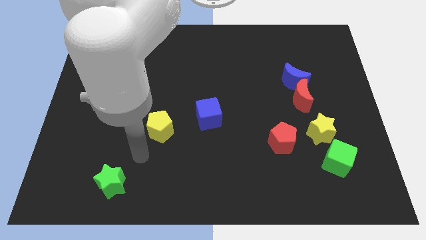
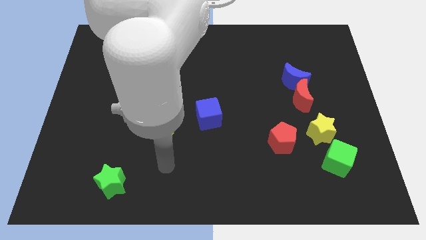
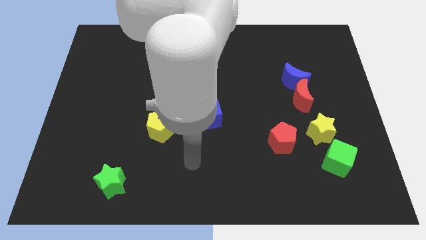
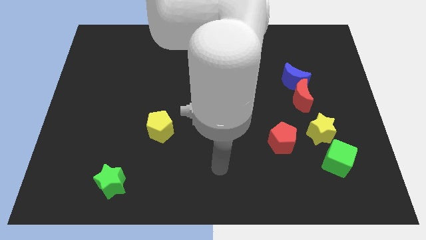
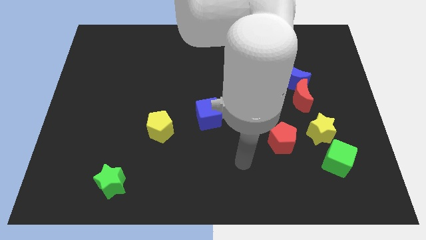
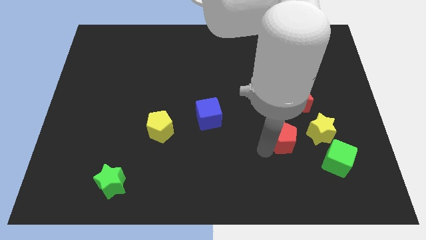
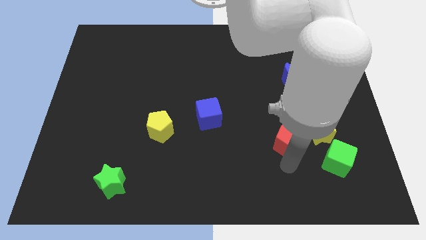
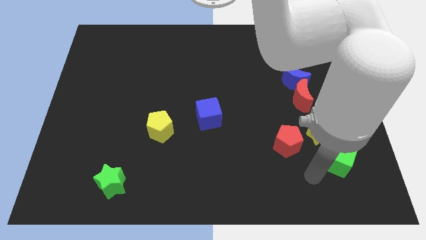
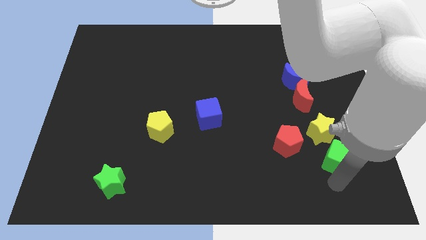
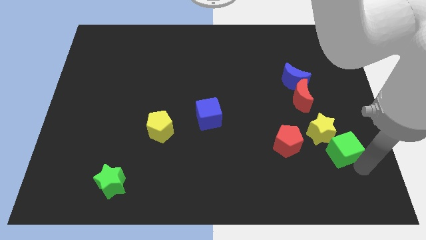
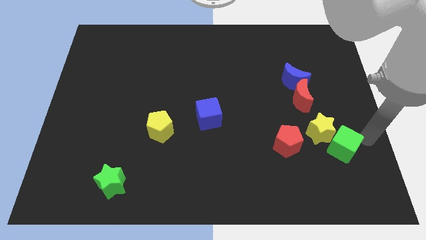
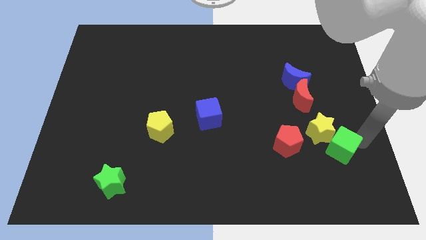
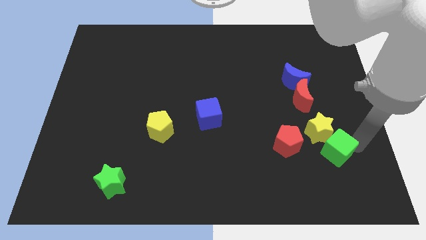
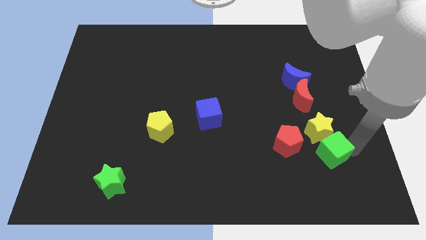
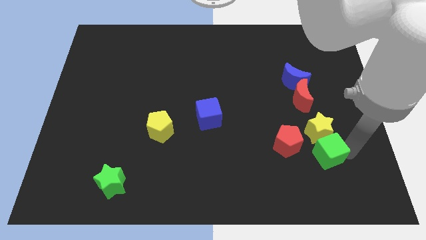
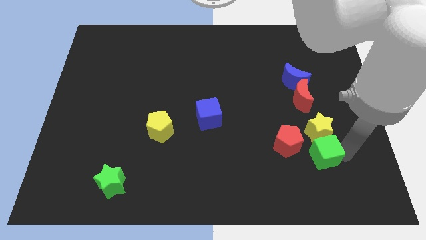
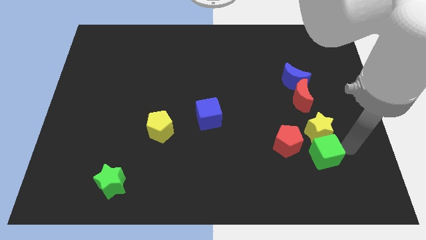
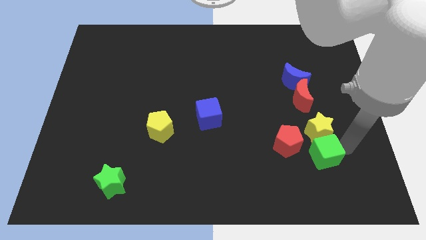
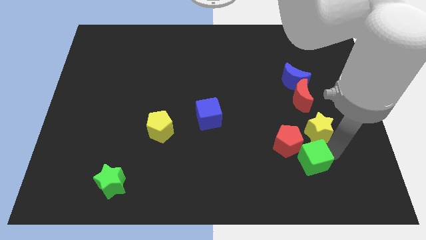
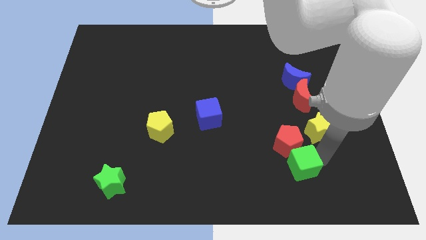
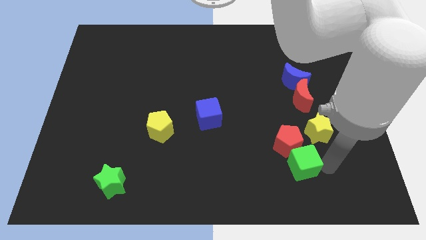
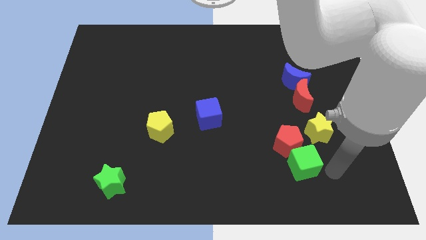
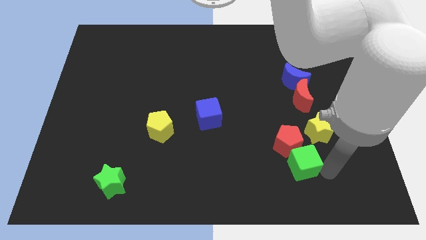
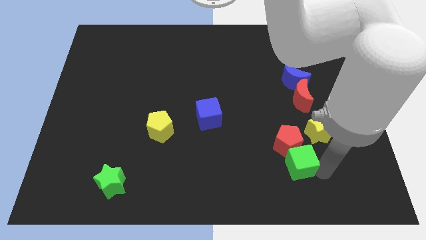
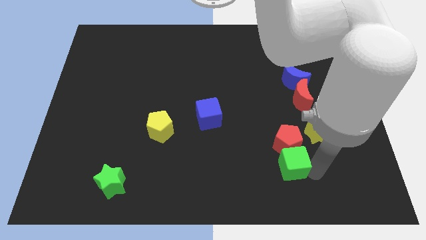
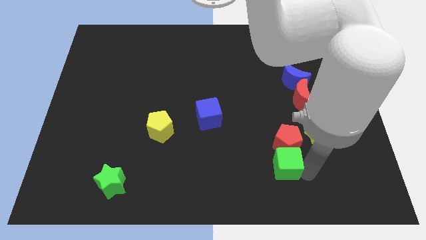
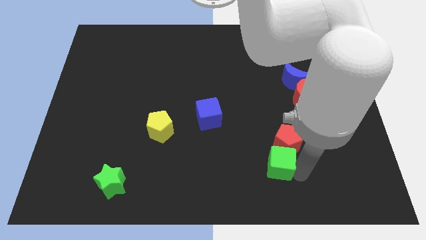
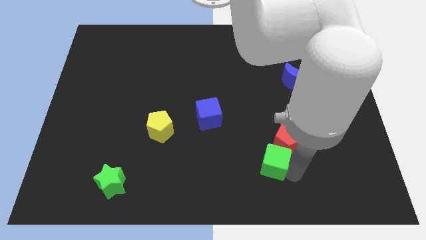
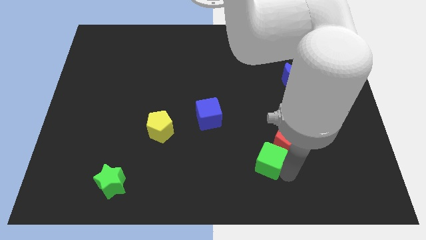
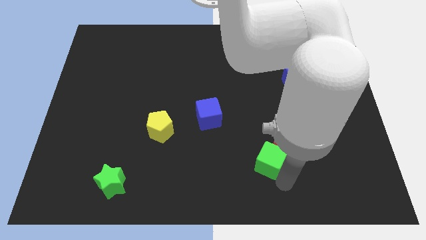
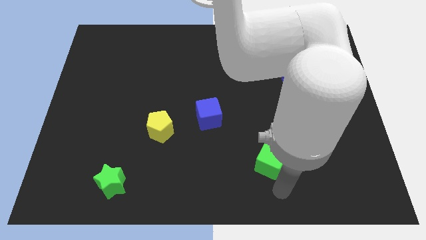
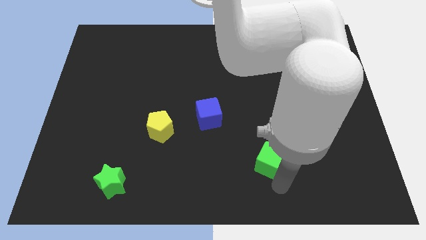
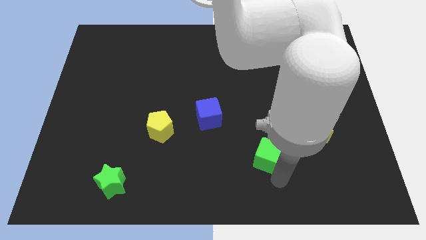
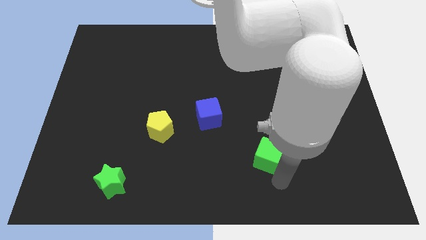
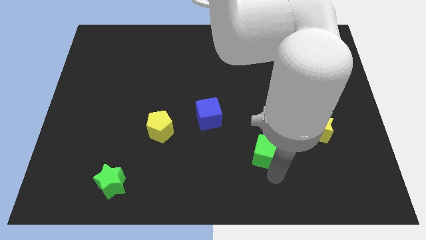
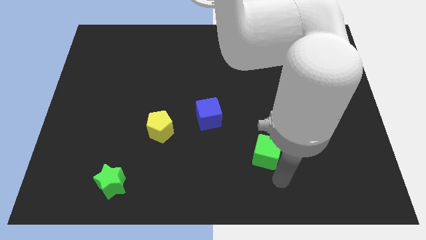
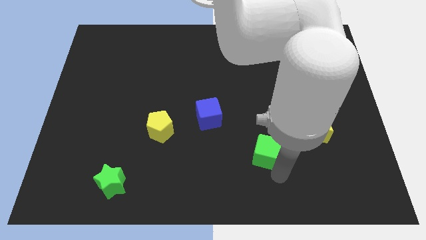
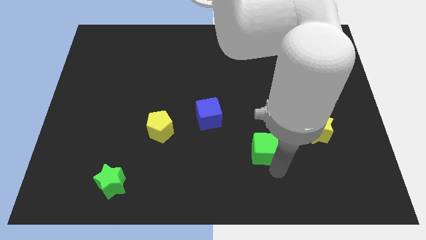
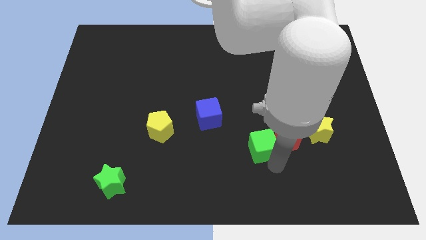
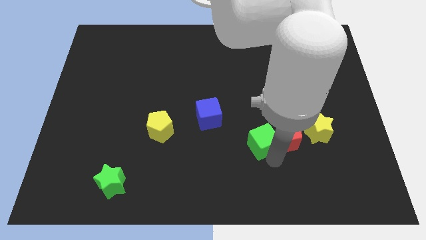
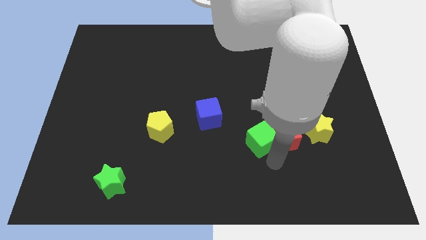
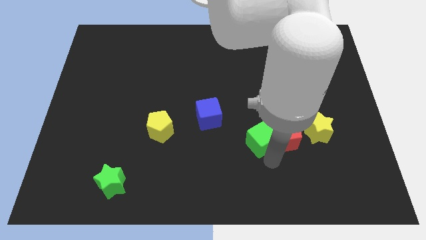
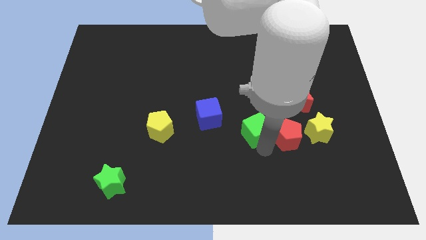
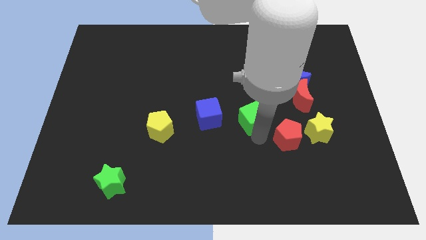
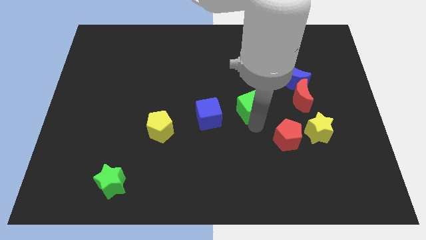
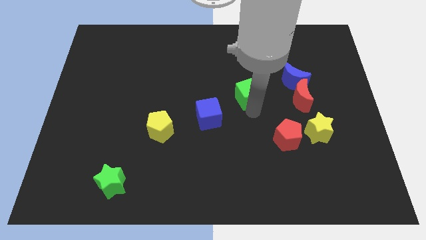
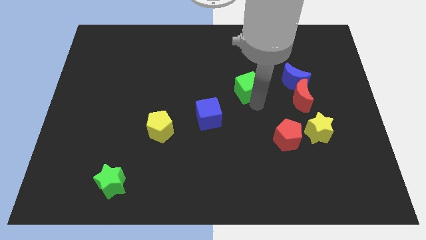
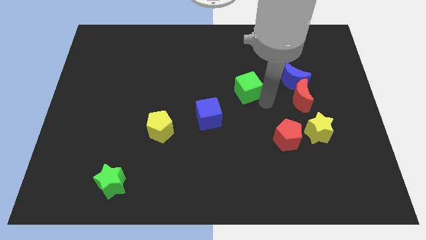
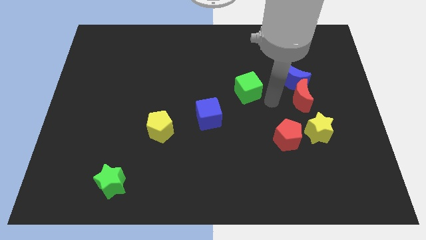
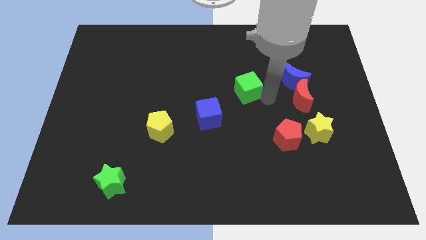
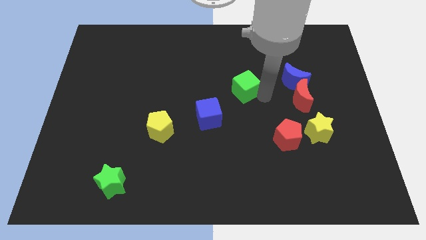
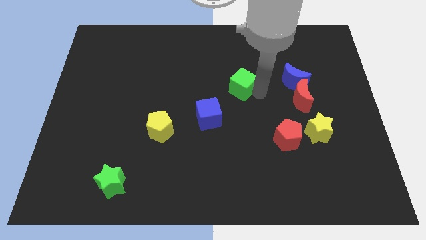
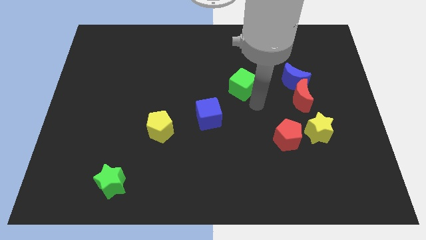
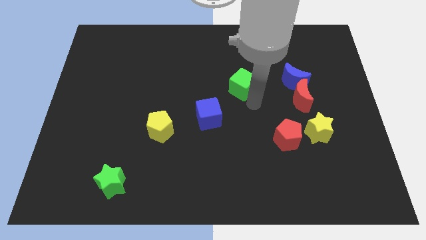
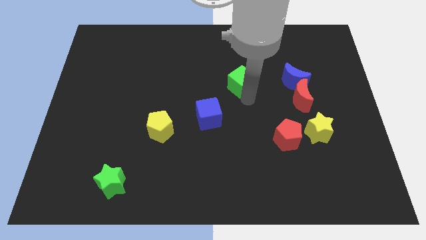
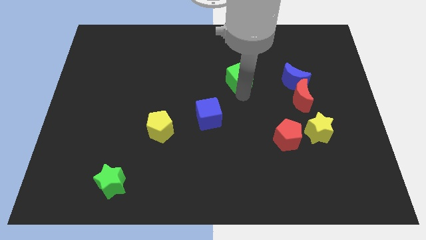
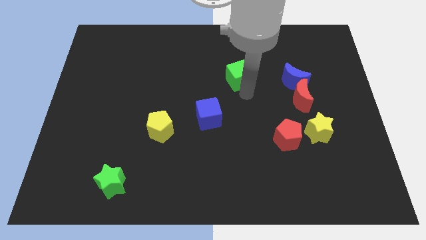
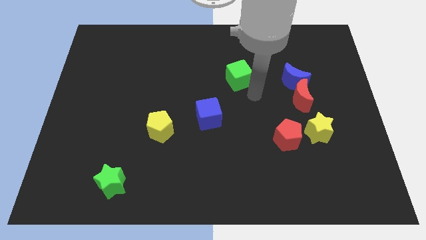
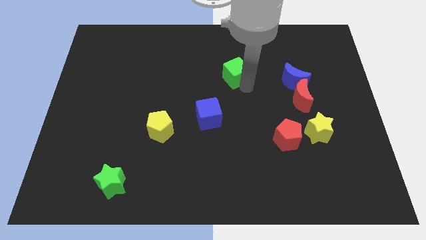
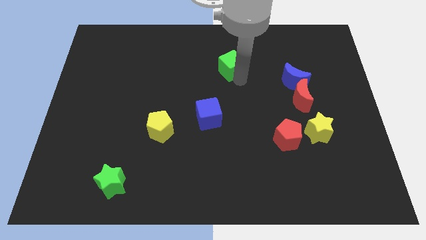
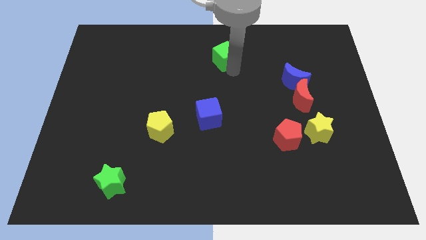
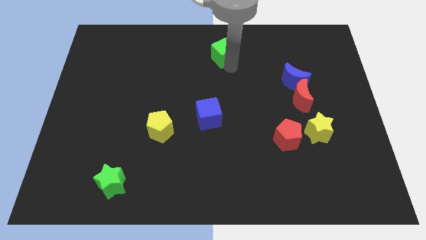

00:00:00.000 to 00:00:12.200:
slide the green cube to the top
